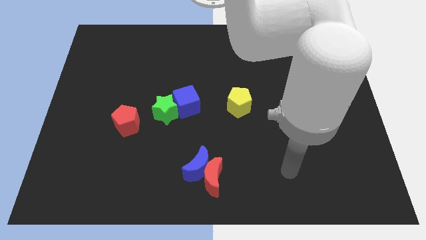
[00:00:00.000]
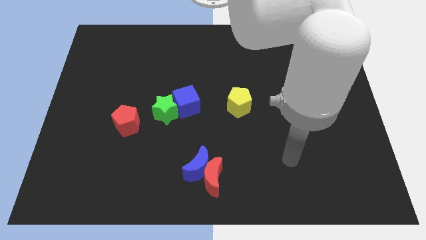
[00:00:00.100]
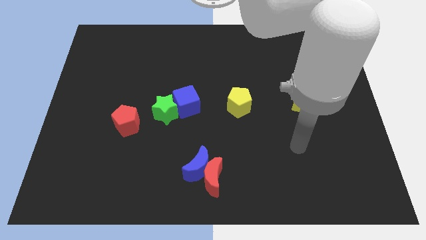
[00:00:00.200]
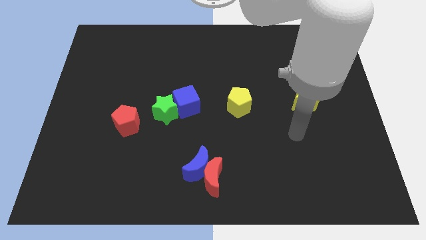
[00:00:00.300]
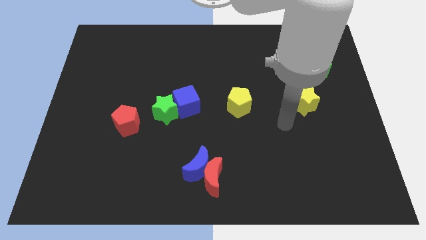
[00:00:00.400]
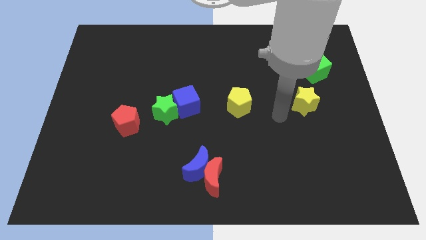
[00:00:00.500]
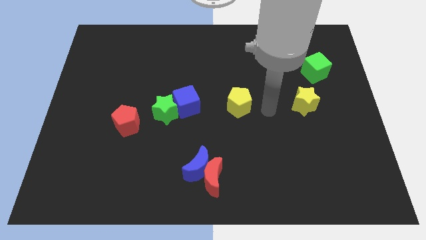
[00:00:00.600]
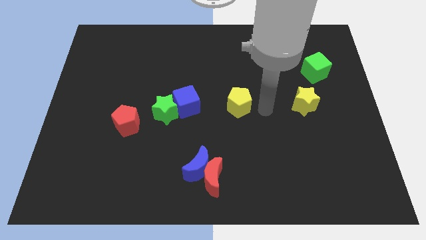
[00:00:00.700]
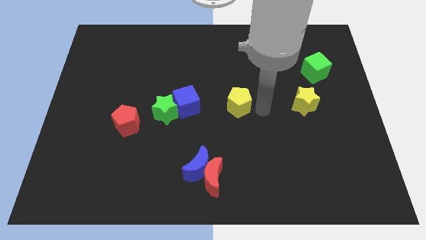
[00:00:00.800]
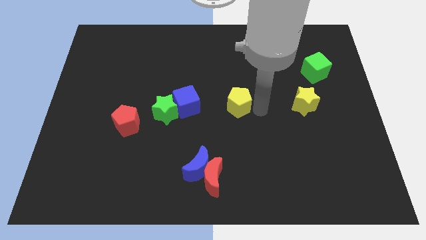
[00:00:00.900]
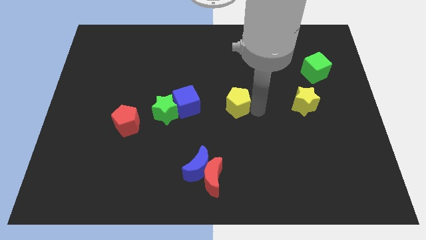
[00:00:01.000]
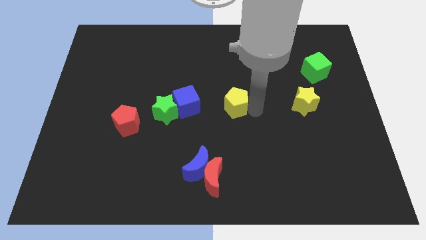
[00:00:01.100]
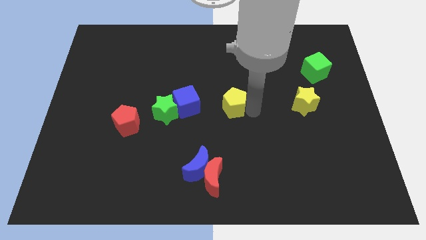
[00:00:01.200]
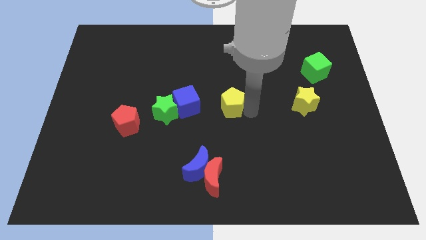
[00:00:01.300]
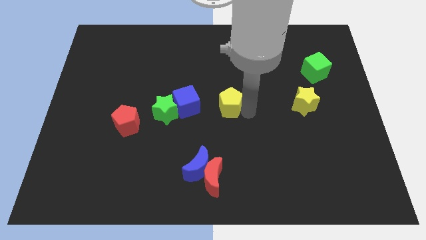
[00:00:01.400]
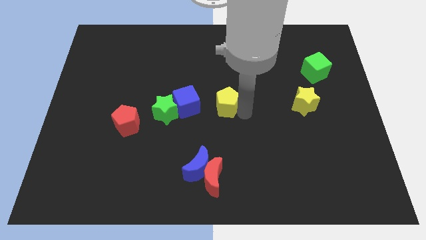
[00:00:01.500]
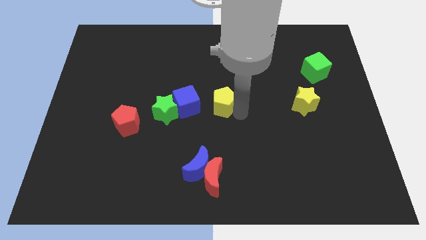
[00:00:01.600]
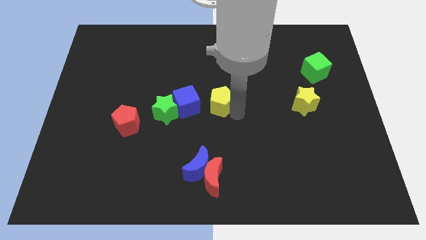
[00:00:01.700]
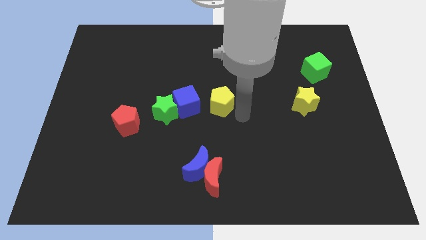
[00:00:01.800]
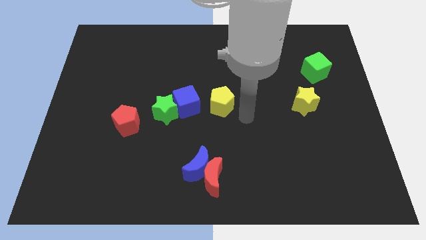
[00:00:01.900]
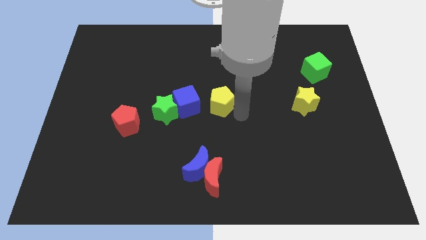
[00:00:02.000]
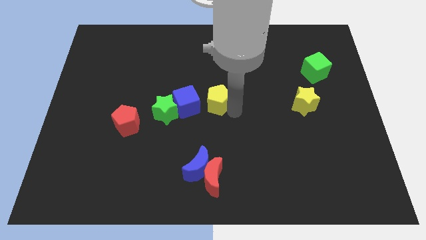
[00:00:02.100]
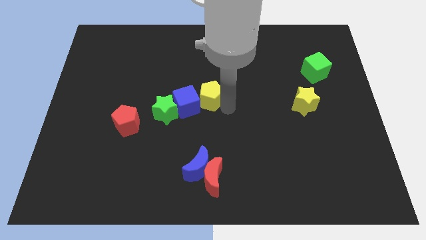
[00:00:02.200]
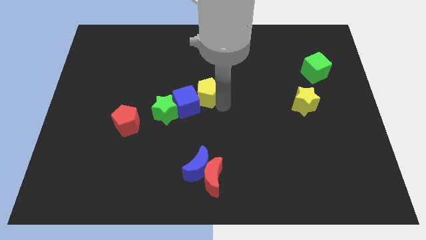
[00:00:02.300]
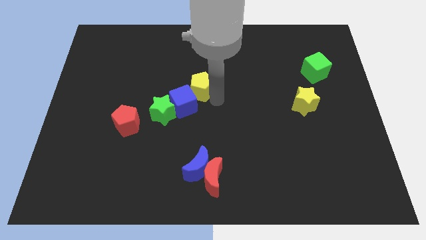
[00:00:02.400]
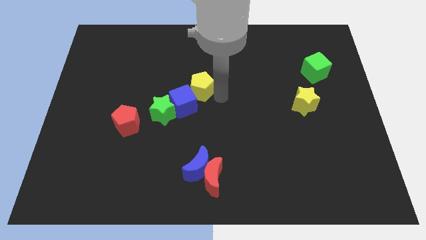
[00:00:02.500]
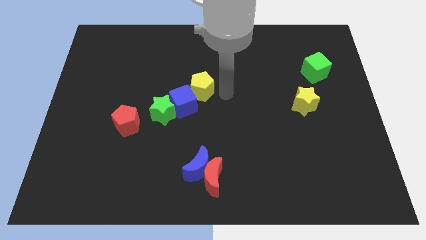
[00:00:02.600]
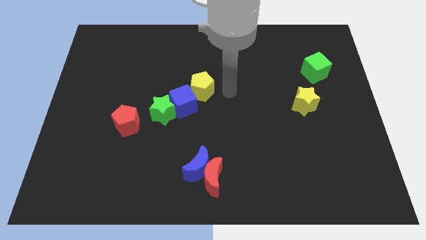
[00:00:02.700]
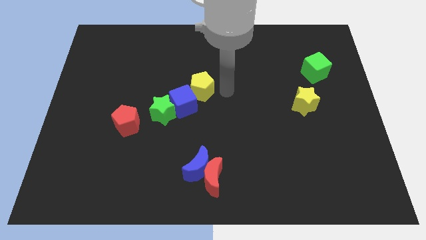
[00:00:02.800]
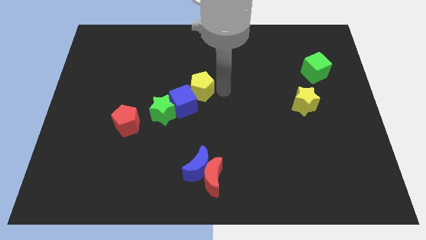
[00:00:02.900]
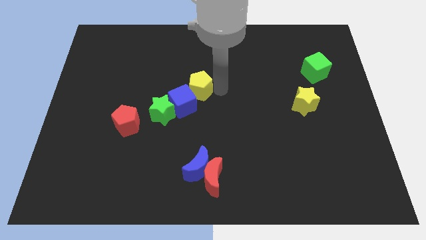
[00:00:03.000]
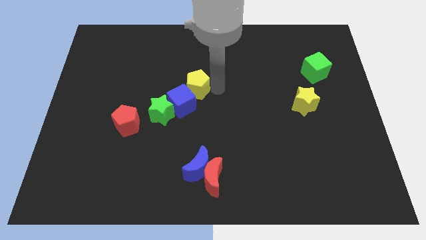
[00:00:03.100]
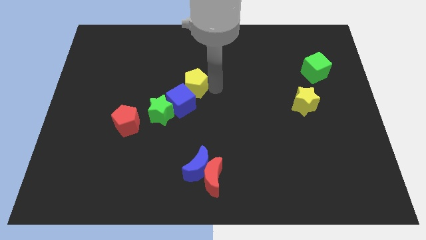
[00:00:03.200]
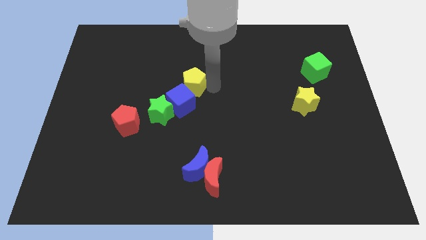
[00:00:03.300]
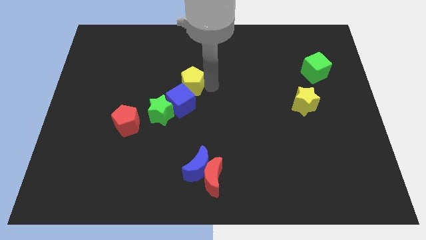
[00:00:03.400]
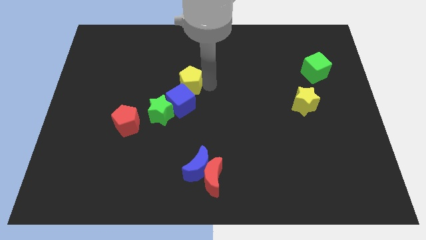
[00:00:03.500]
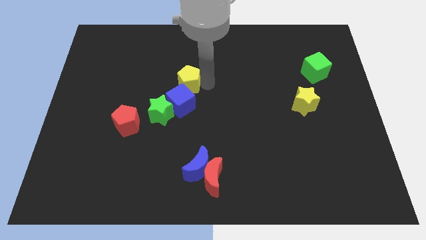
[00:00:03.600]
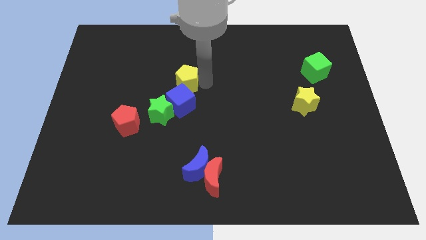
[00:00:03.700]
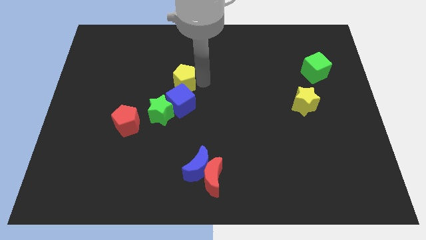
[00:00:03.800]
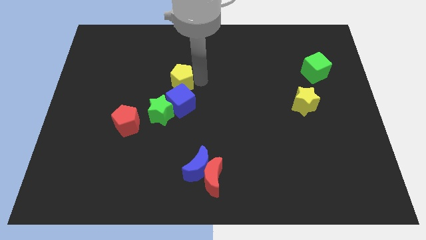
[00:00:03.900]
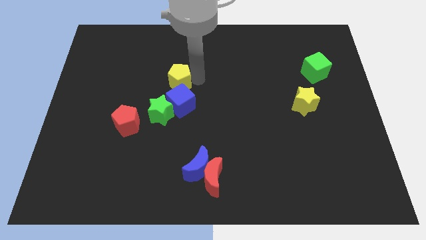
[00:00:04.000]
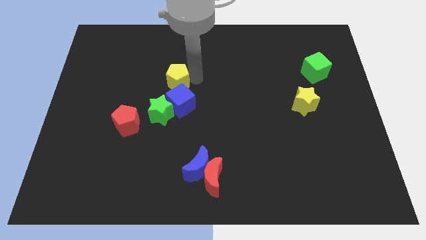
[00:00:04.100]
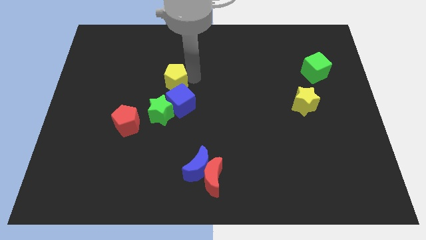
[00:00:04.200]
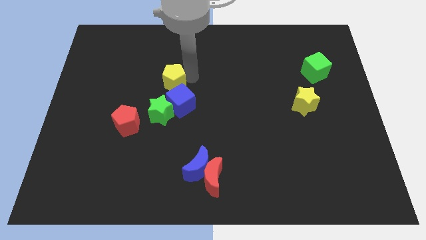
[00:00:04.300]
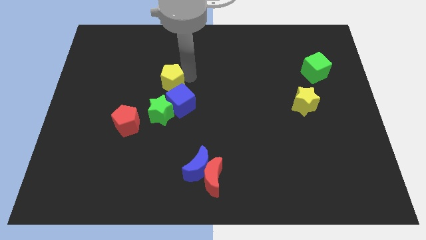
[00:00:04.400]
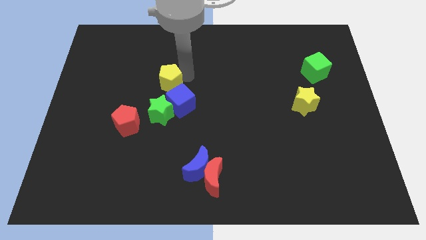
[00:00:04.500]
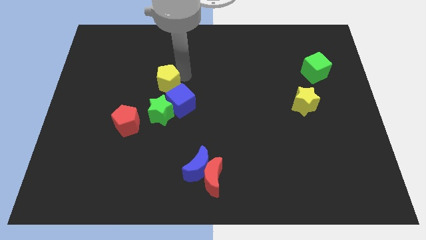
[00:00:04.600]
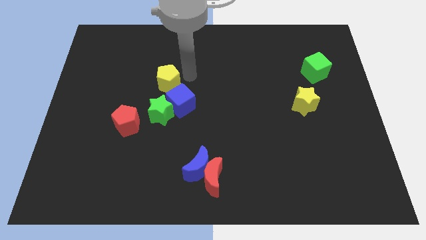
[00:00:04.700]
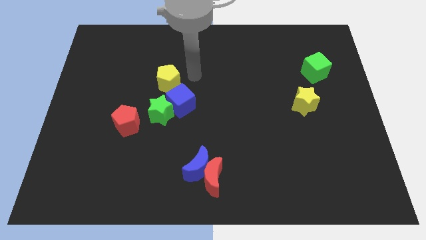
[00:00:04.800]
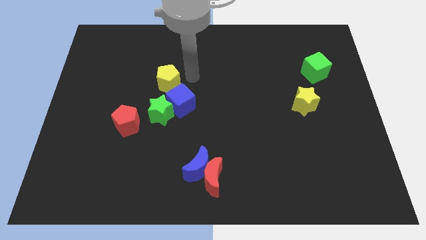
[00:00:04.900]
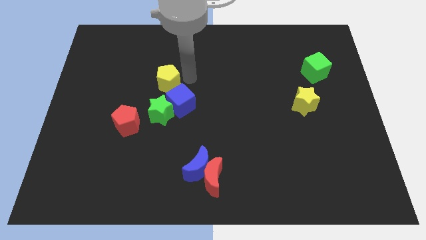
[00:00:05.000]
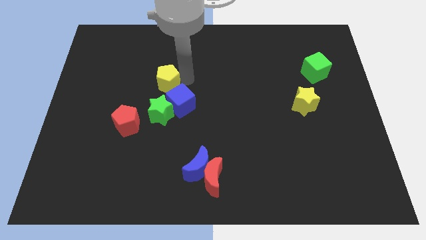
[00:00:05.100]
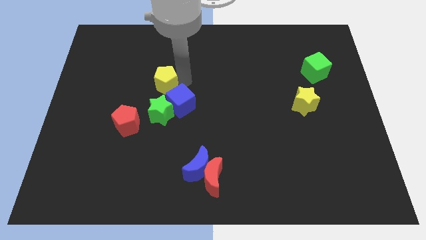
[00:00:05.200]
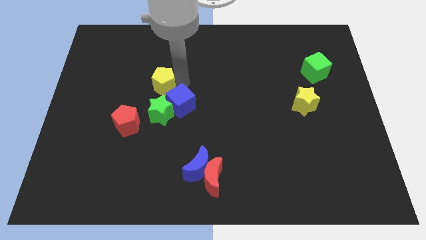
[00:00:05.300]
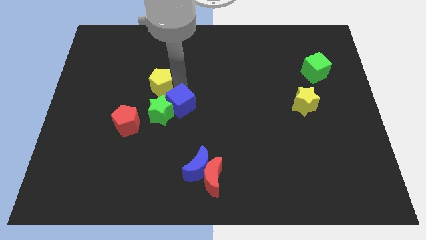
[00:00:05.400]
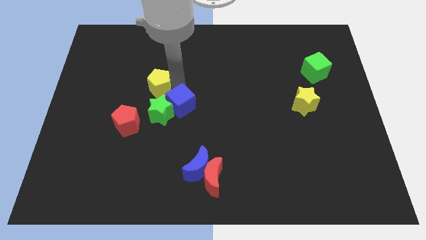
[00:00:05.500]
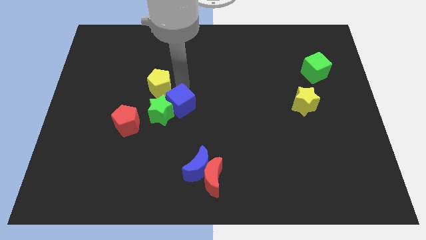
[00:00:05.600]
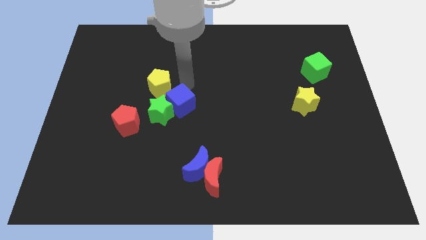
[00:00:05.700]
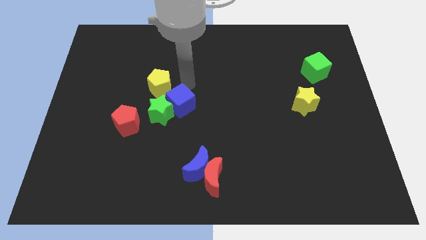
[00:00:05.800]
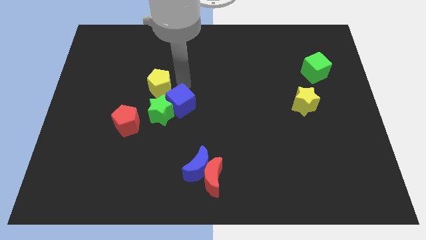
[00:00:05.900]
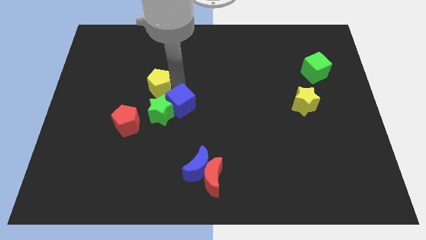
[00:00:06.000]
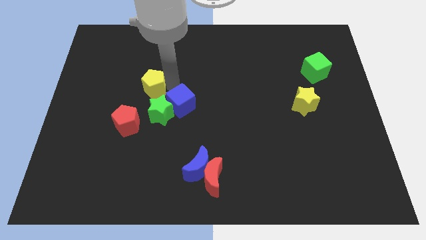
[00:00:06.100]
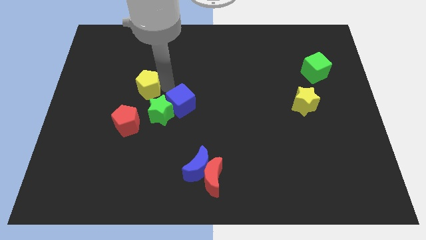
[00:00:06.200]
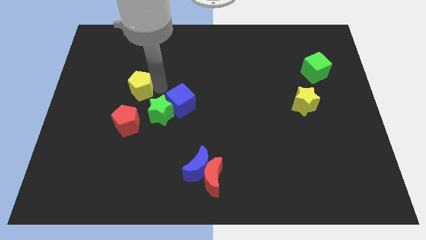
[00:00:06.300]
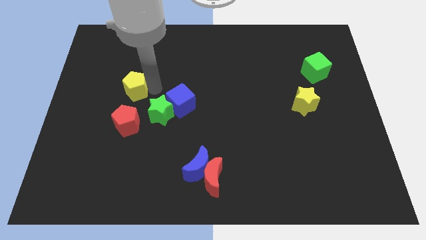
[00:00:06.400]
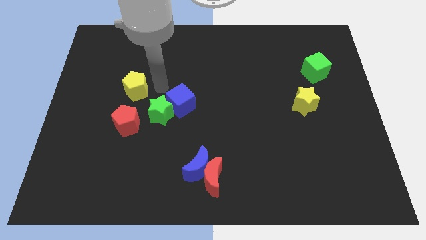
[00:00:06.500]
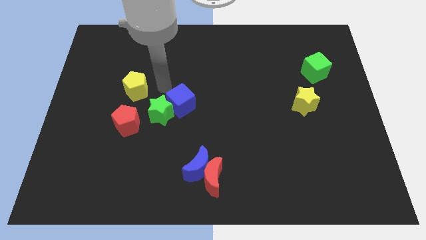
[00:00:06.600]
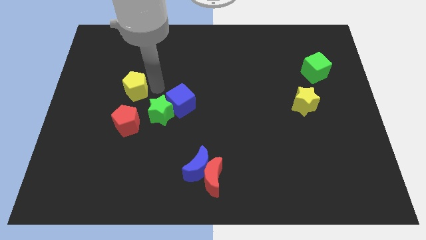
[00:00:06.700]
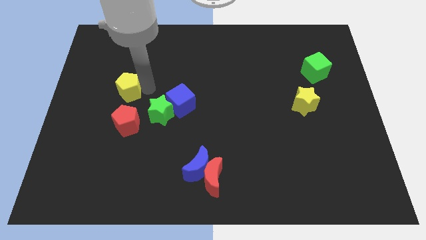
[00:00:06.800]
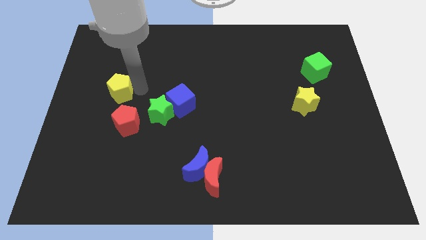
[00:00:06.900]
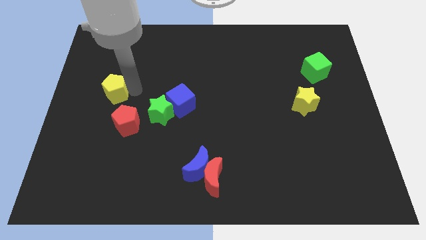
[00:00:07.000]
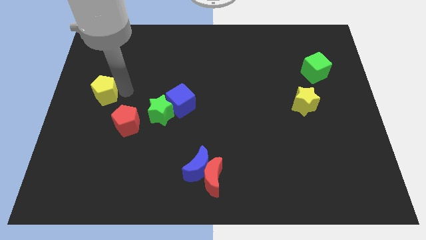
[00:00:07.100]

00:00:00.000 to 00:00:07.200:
move the yellow pentagon to the center left
